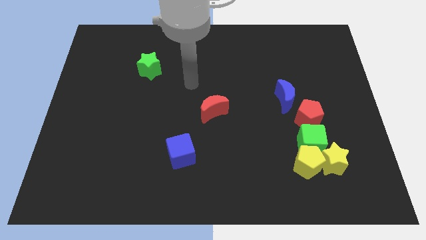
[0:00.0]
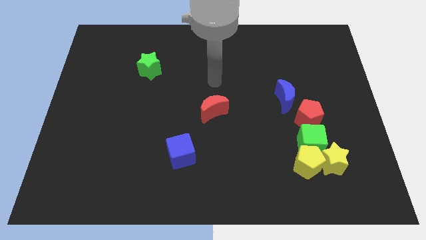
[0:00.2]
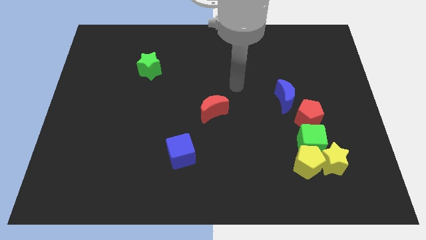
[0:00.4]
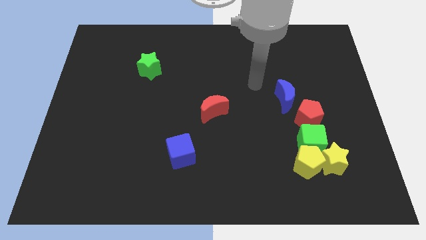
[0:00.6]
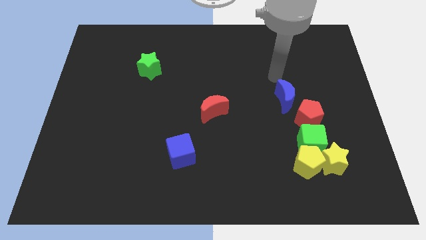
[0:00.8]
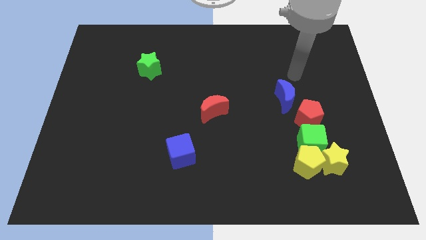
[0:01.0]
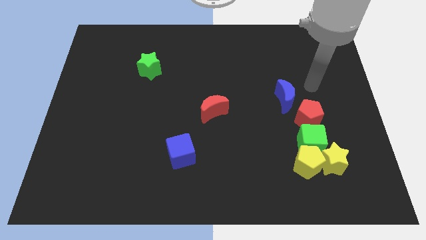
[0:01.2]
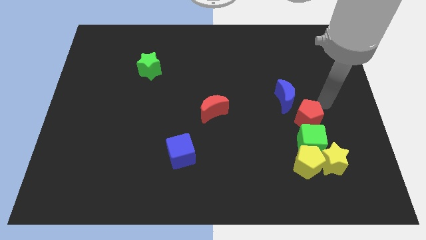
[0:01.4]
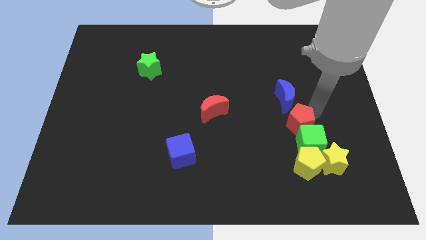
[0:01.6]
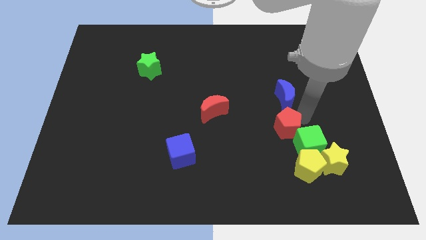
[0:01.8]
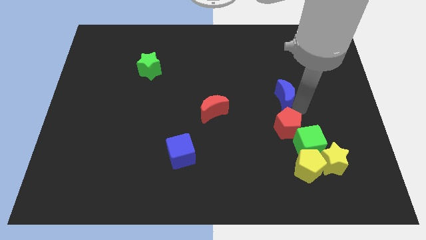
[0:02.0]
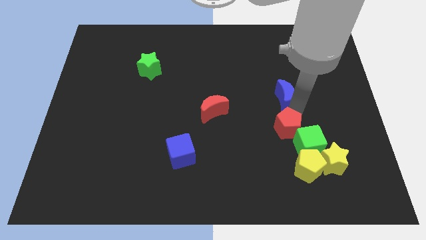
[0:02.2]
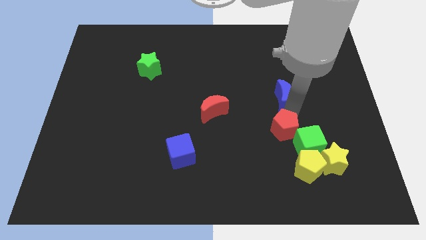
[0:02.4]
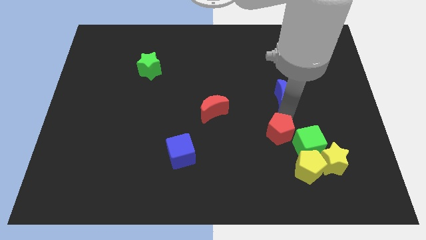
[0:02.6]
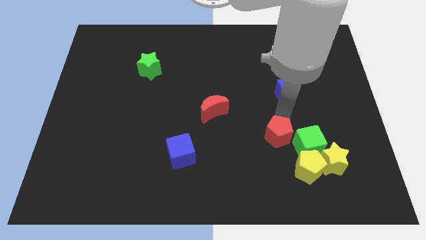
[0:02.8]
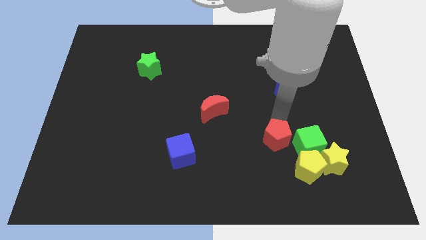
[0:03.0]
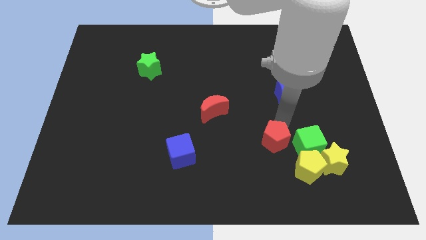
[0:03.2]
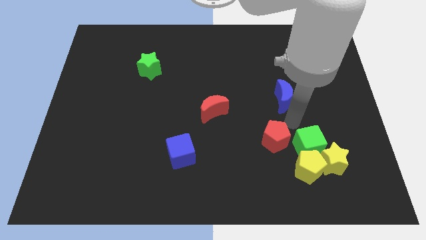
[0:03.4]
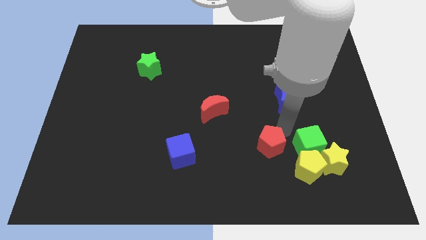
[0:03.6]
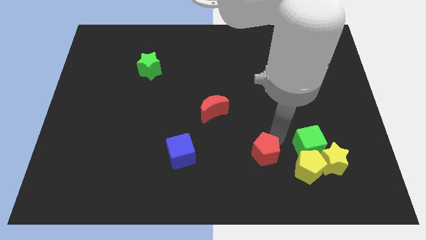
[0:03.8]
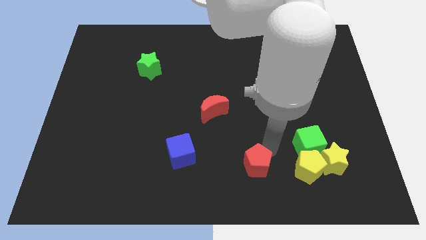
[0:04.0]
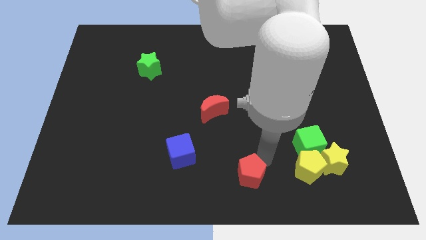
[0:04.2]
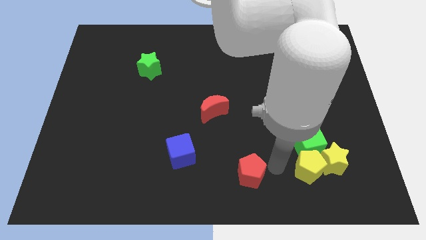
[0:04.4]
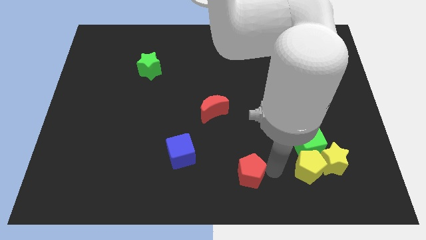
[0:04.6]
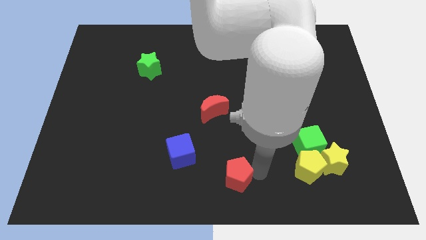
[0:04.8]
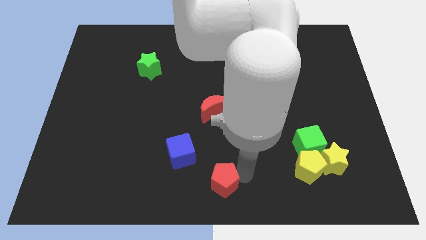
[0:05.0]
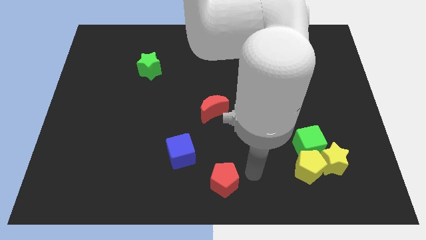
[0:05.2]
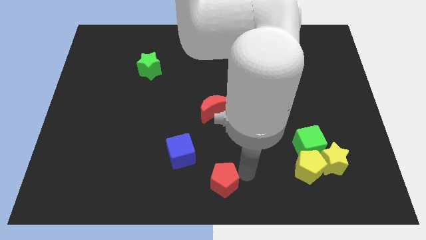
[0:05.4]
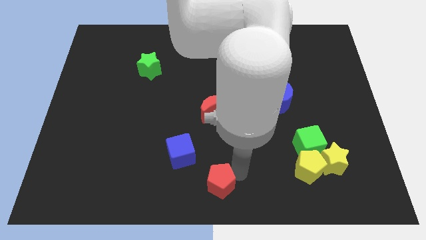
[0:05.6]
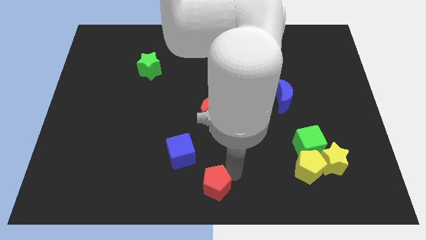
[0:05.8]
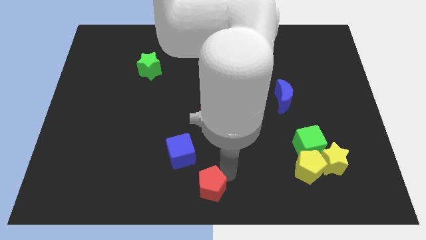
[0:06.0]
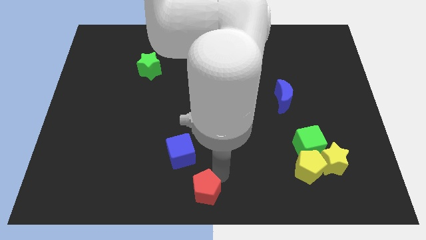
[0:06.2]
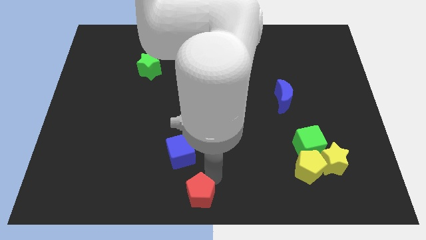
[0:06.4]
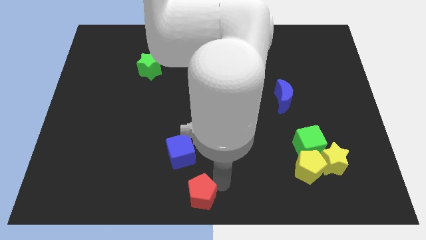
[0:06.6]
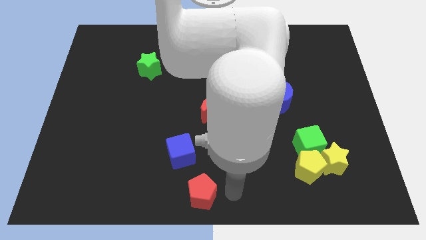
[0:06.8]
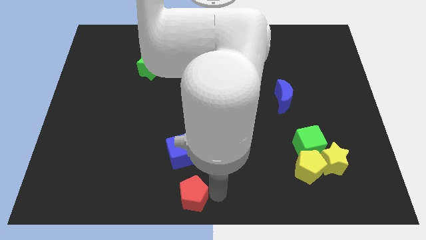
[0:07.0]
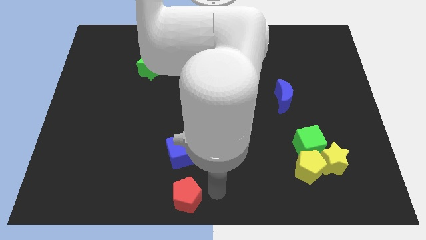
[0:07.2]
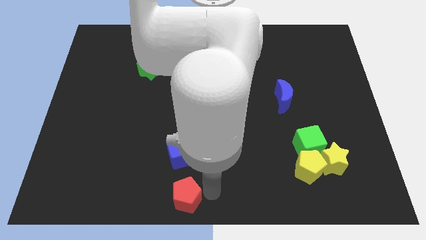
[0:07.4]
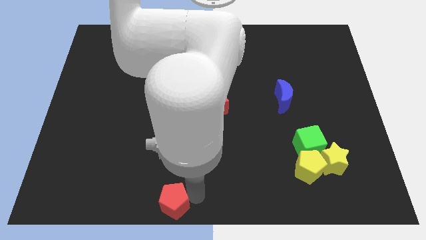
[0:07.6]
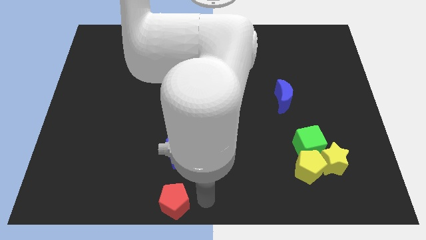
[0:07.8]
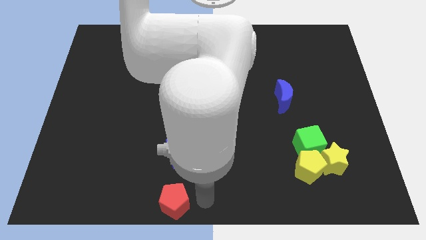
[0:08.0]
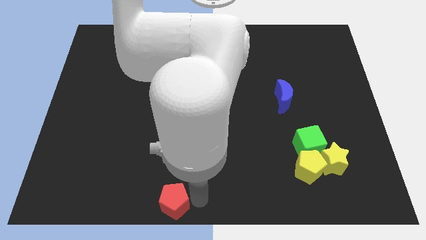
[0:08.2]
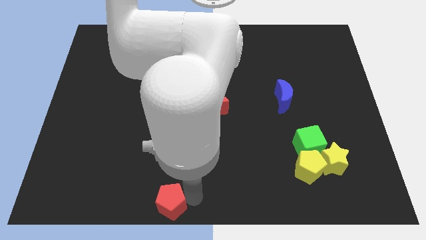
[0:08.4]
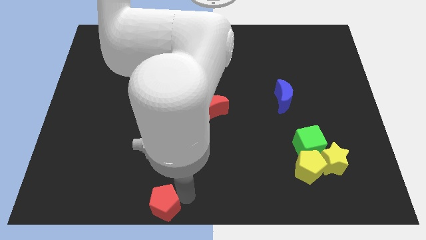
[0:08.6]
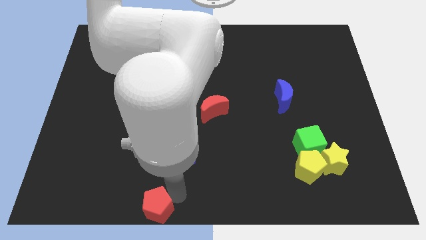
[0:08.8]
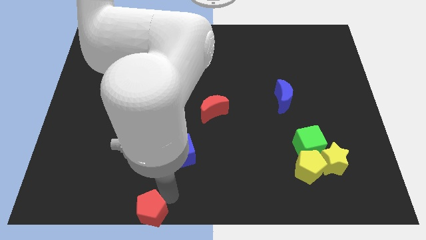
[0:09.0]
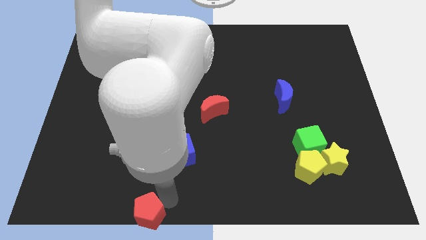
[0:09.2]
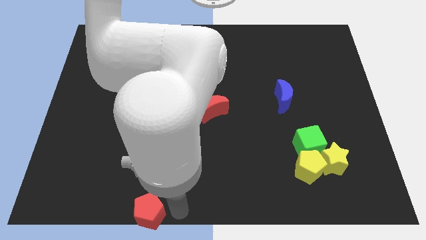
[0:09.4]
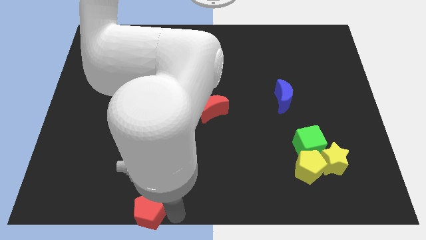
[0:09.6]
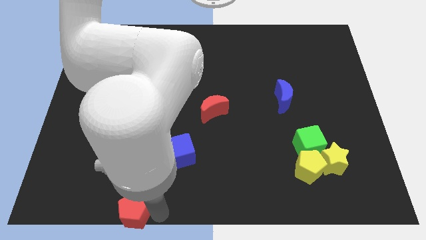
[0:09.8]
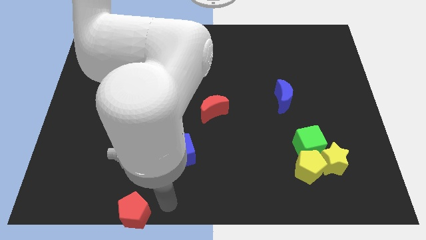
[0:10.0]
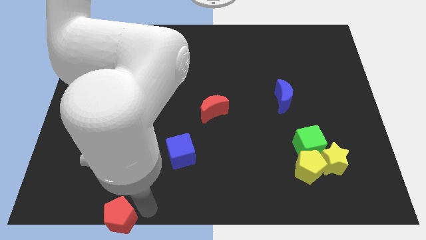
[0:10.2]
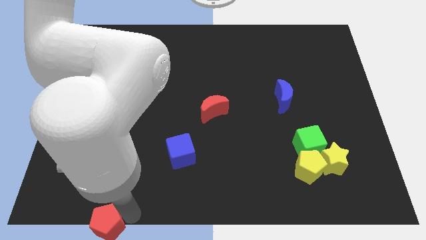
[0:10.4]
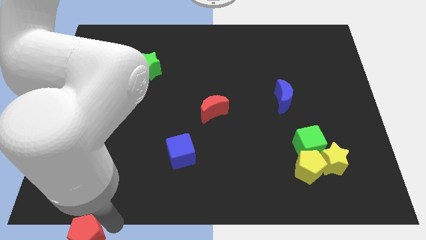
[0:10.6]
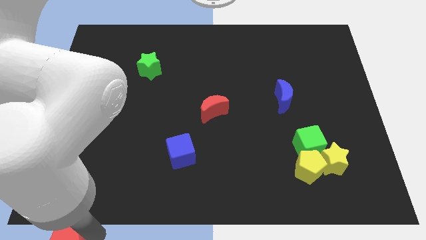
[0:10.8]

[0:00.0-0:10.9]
move the red pentagon to the bottom left corner
